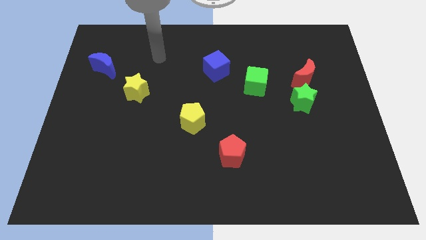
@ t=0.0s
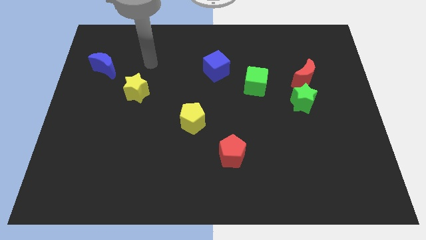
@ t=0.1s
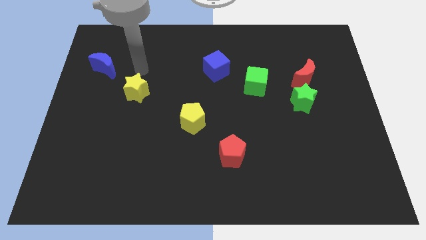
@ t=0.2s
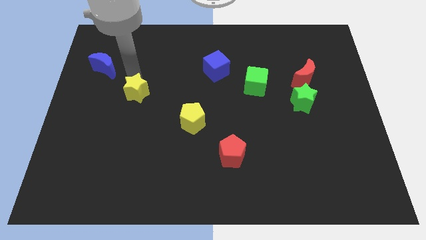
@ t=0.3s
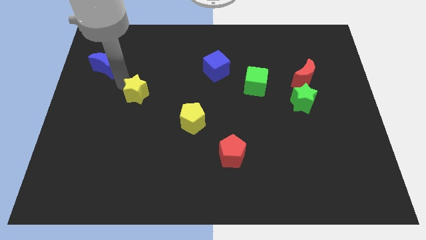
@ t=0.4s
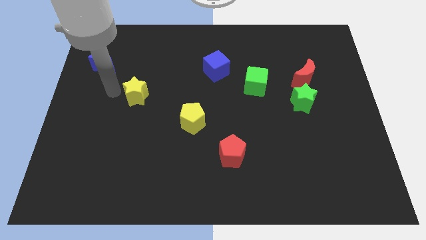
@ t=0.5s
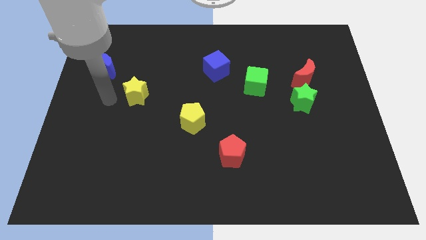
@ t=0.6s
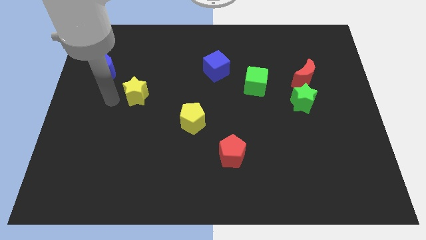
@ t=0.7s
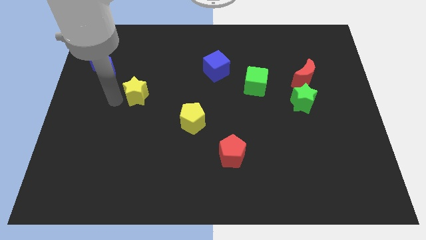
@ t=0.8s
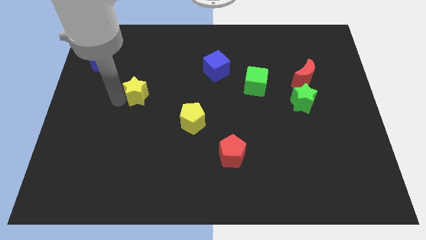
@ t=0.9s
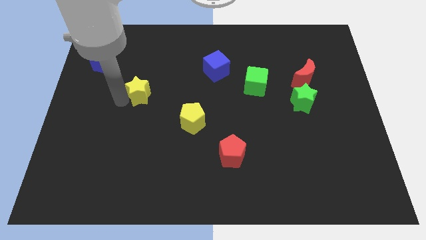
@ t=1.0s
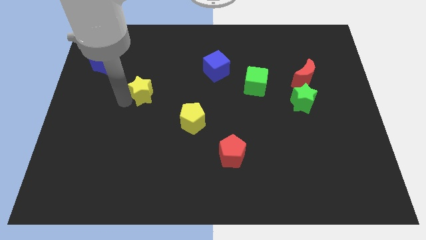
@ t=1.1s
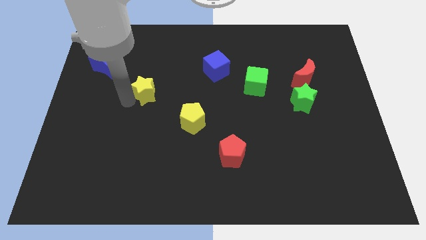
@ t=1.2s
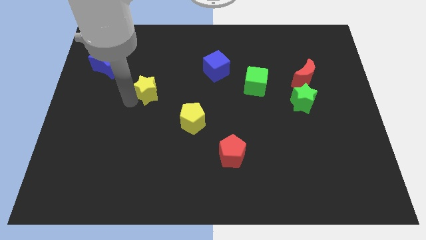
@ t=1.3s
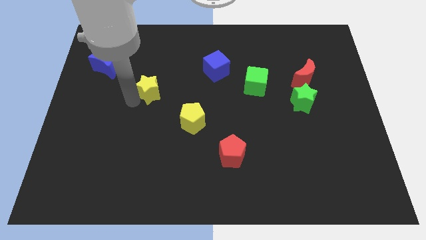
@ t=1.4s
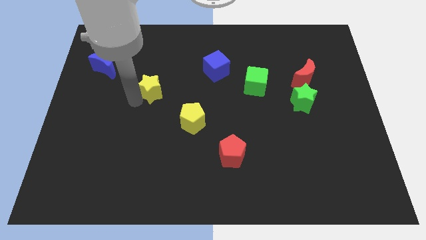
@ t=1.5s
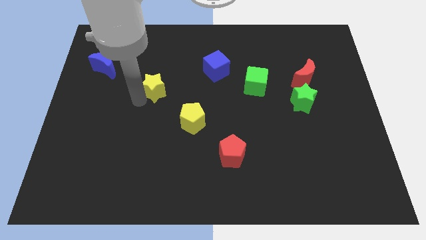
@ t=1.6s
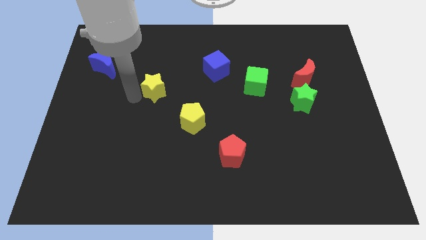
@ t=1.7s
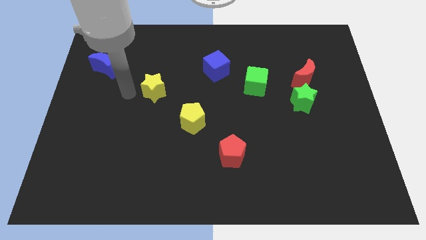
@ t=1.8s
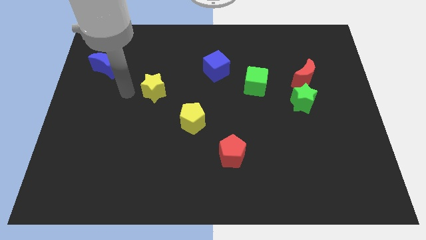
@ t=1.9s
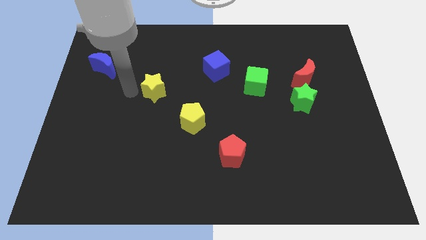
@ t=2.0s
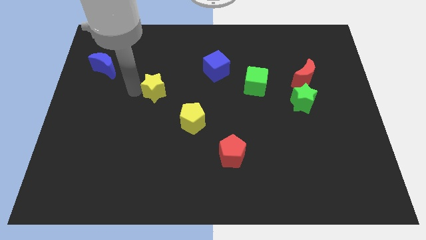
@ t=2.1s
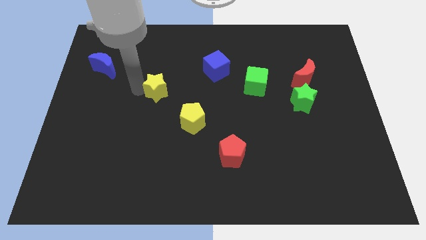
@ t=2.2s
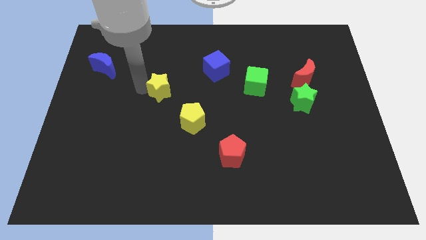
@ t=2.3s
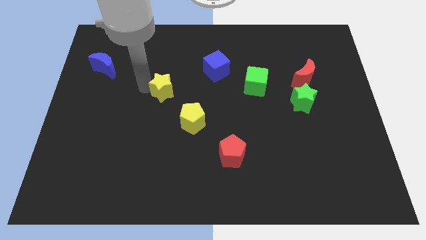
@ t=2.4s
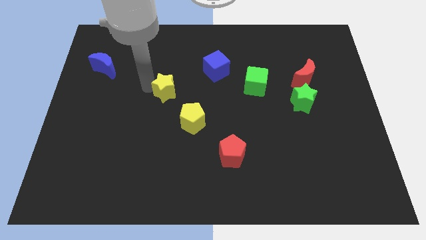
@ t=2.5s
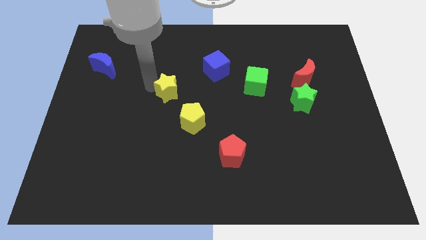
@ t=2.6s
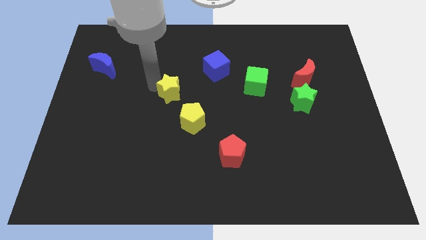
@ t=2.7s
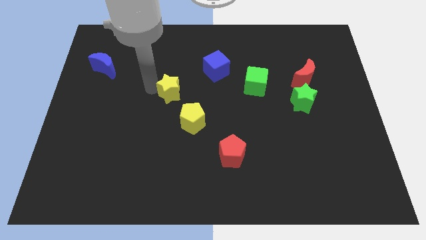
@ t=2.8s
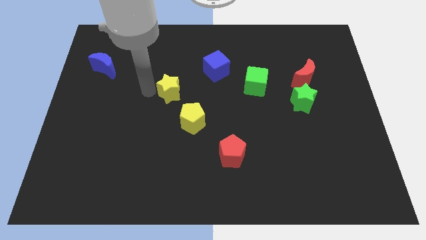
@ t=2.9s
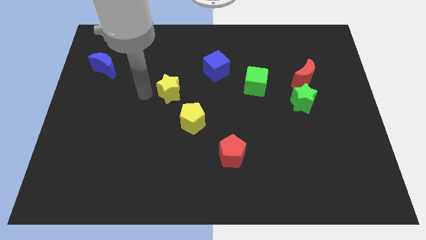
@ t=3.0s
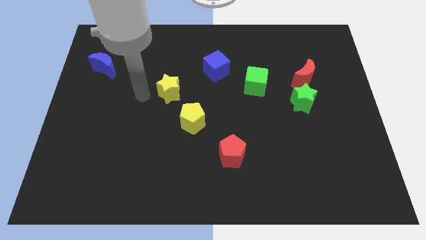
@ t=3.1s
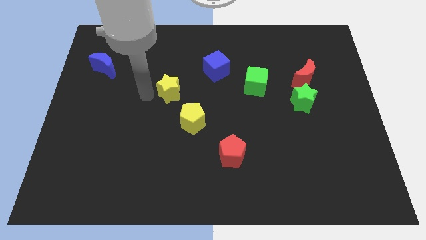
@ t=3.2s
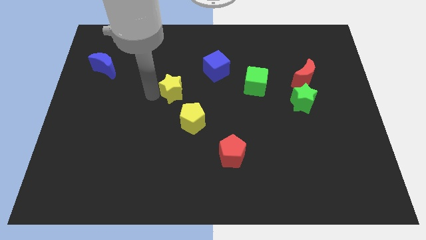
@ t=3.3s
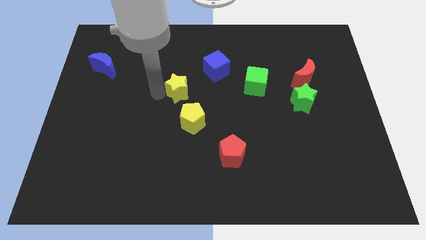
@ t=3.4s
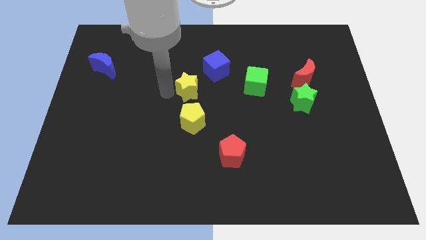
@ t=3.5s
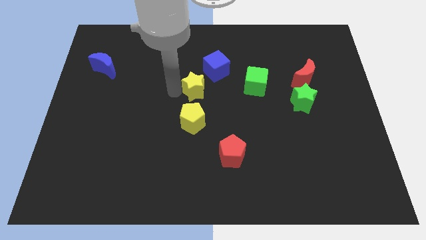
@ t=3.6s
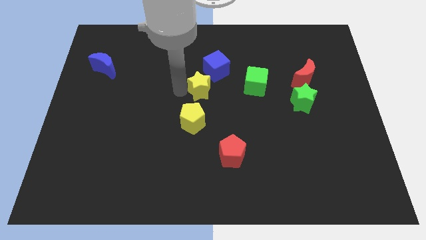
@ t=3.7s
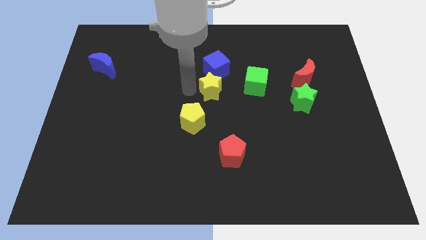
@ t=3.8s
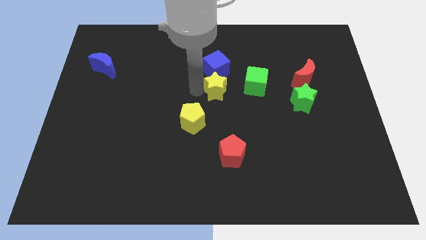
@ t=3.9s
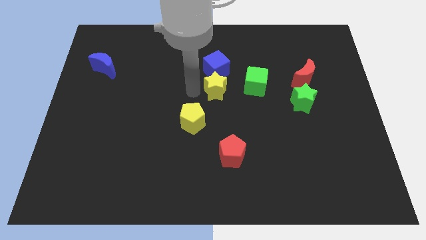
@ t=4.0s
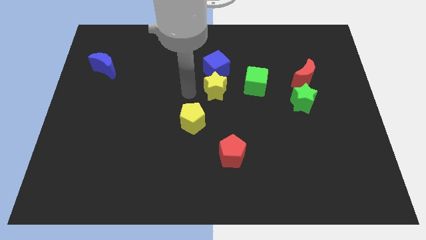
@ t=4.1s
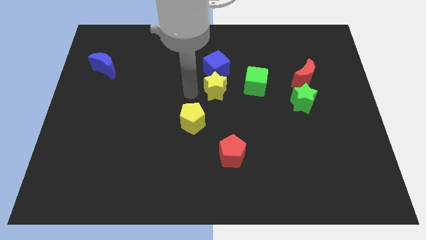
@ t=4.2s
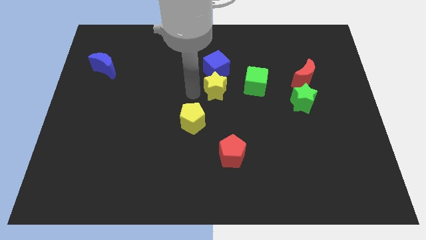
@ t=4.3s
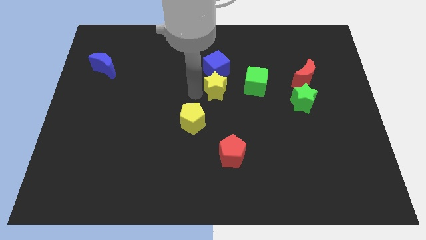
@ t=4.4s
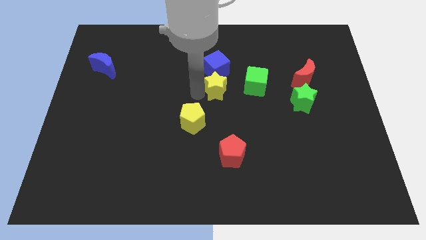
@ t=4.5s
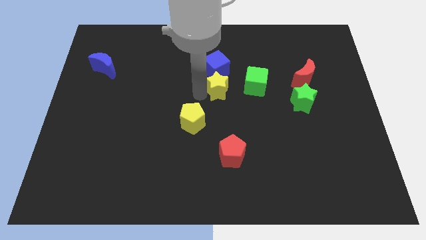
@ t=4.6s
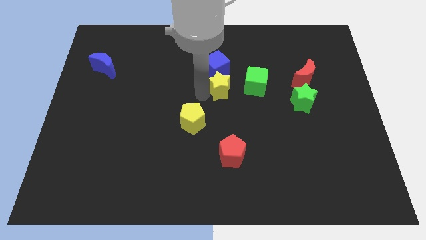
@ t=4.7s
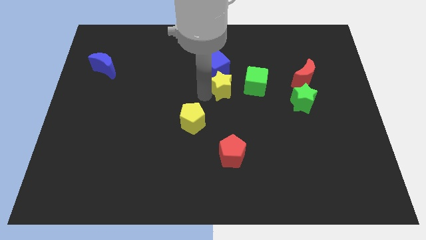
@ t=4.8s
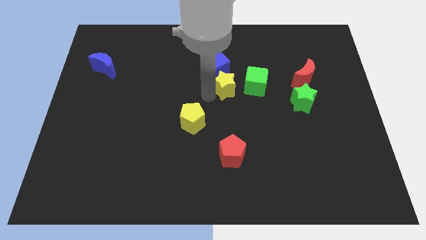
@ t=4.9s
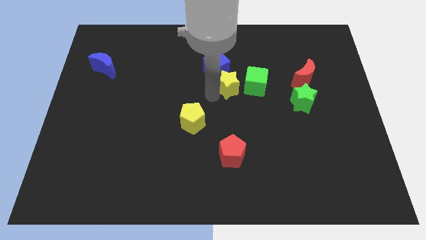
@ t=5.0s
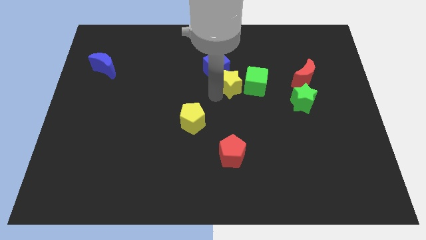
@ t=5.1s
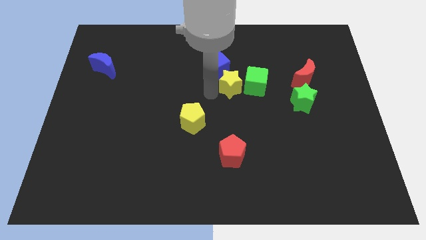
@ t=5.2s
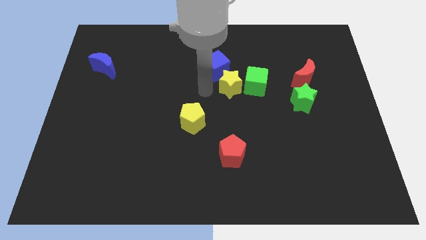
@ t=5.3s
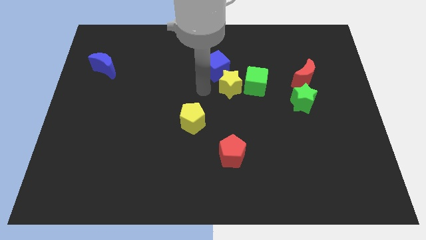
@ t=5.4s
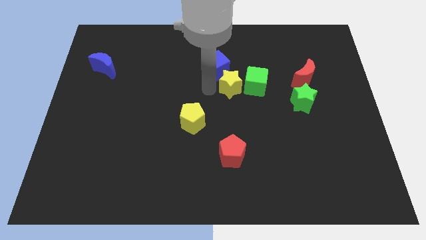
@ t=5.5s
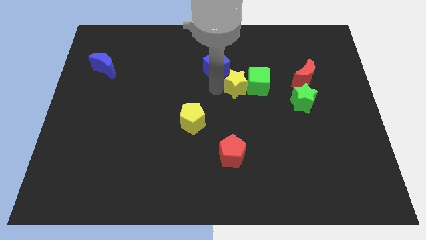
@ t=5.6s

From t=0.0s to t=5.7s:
move the yellow star to the green cube
